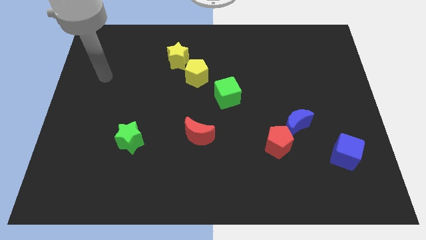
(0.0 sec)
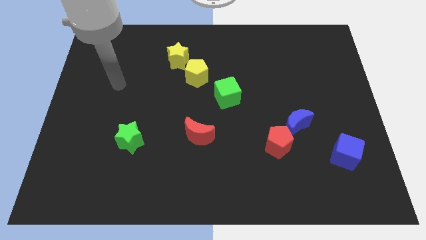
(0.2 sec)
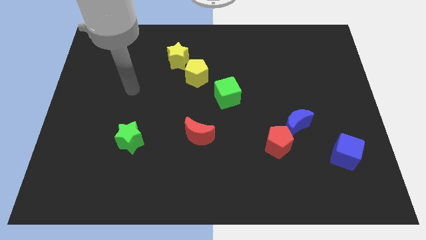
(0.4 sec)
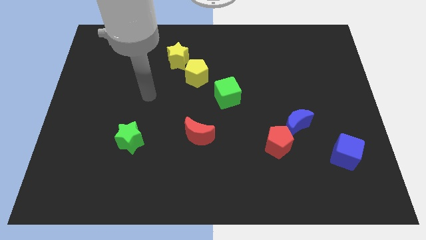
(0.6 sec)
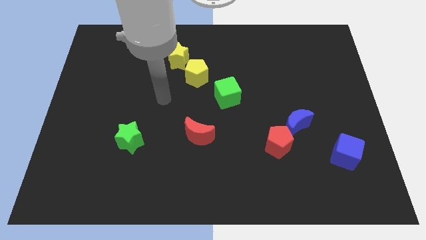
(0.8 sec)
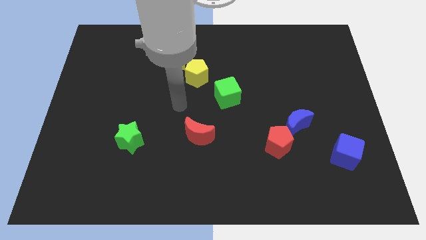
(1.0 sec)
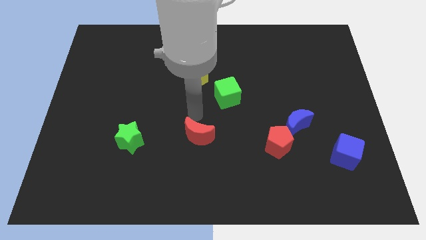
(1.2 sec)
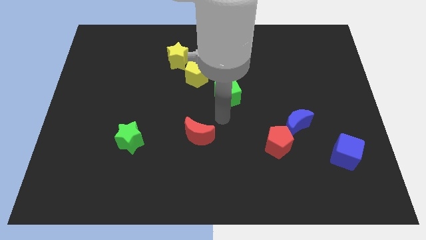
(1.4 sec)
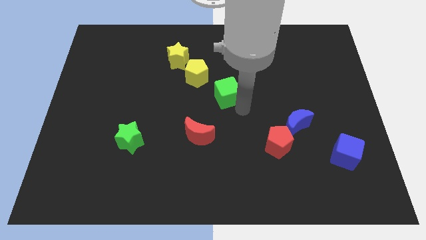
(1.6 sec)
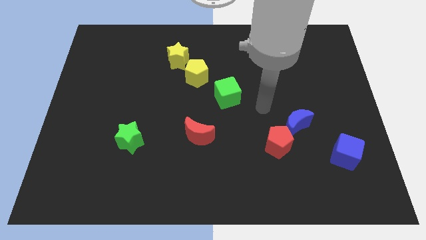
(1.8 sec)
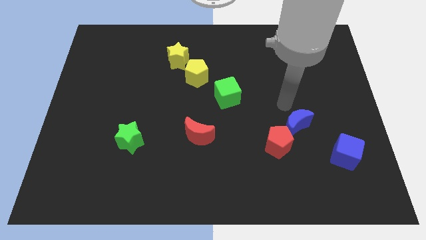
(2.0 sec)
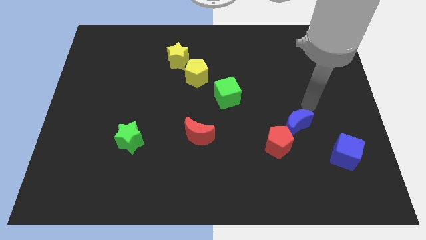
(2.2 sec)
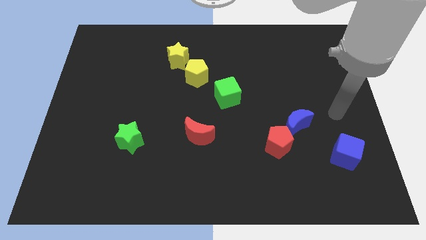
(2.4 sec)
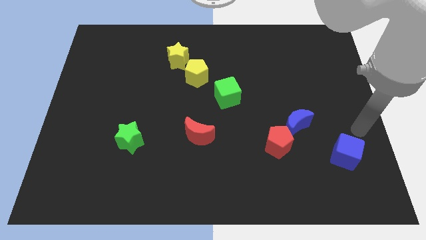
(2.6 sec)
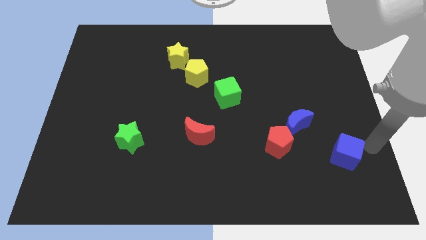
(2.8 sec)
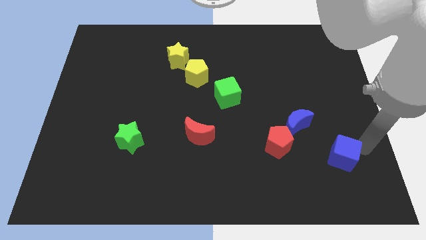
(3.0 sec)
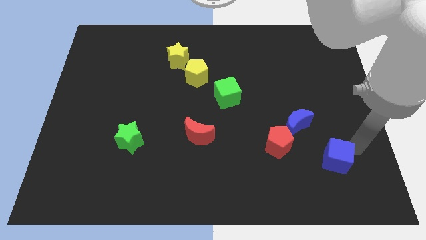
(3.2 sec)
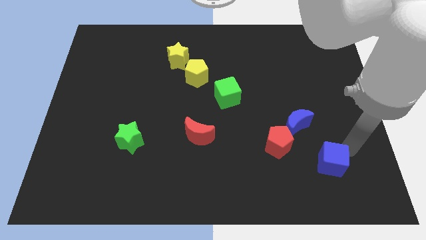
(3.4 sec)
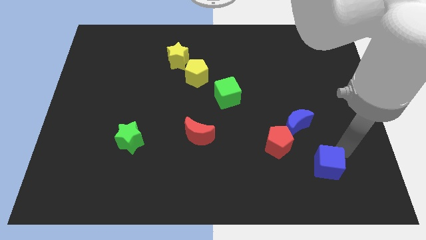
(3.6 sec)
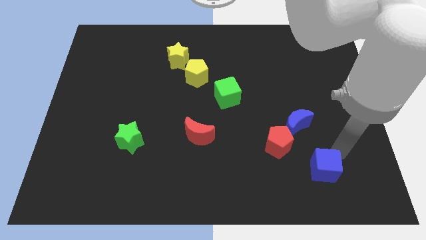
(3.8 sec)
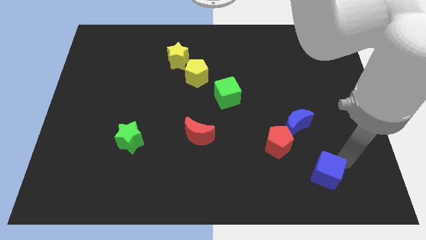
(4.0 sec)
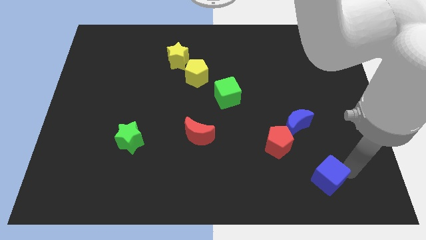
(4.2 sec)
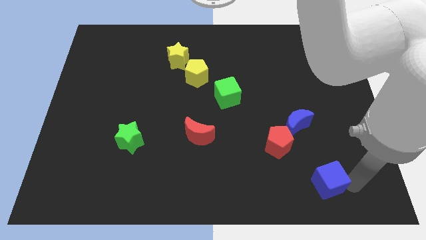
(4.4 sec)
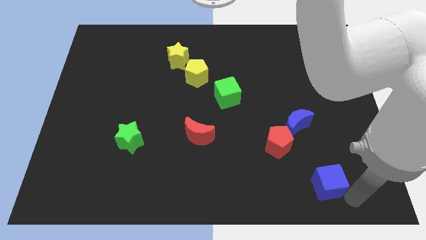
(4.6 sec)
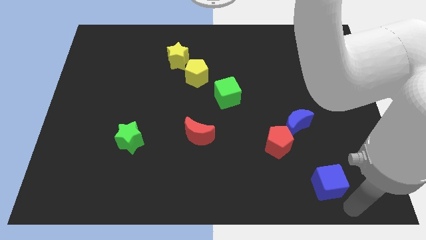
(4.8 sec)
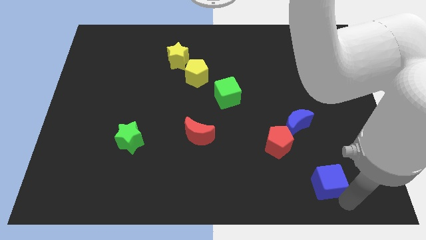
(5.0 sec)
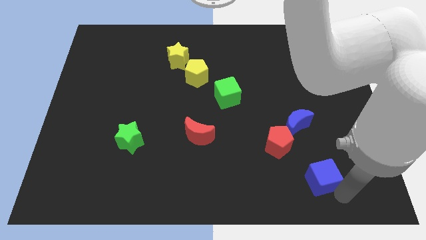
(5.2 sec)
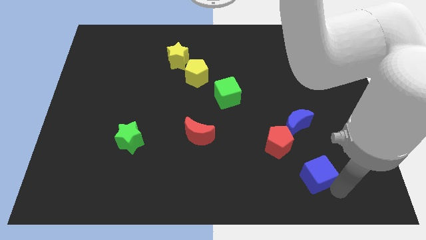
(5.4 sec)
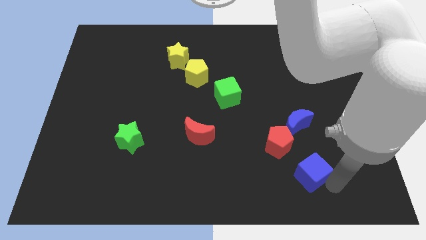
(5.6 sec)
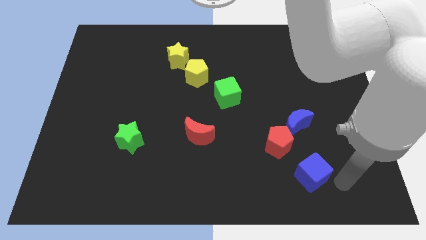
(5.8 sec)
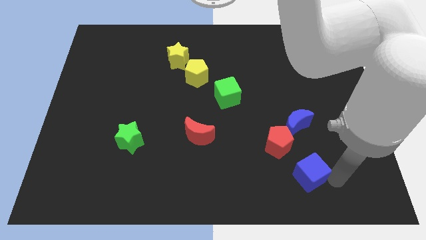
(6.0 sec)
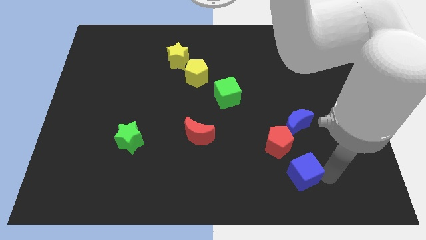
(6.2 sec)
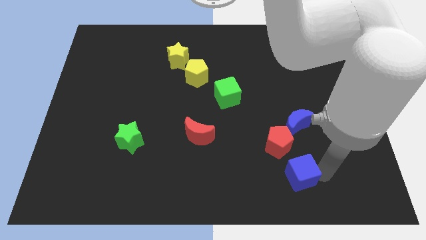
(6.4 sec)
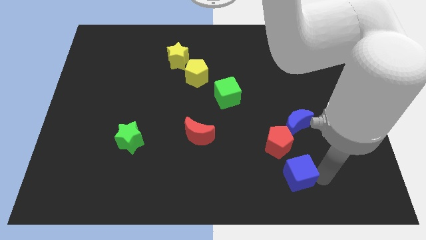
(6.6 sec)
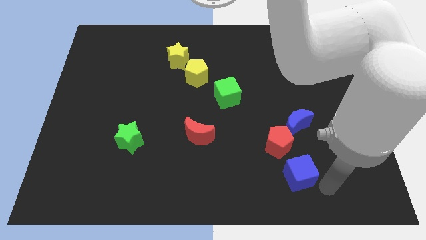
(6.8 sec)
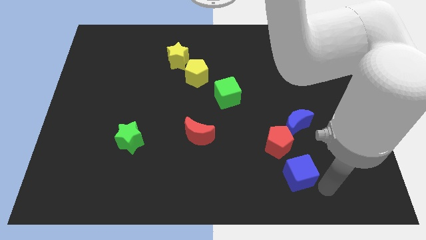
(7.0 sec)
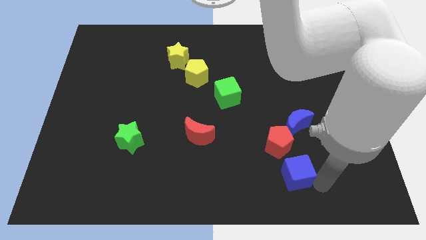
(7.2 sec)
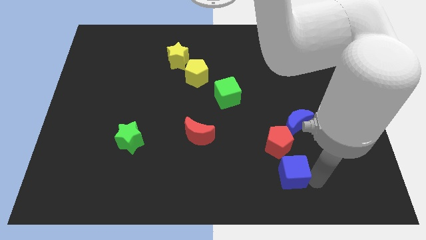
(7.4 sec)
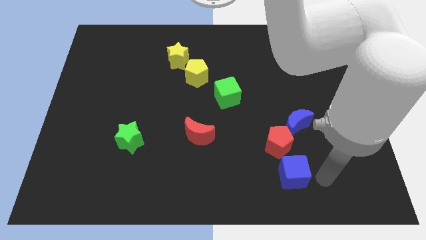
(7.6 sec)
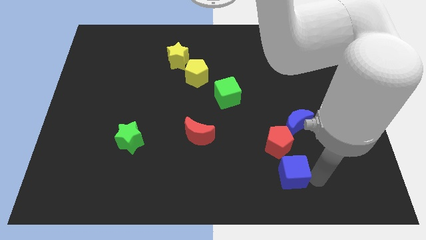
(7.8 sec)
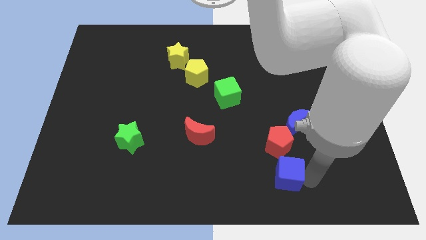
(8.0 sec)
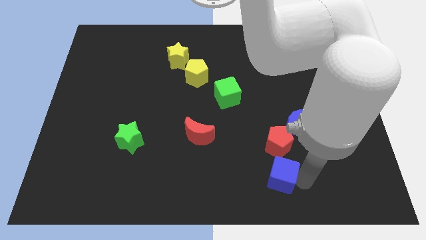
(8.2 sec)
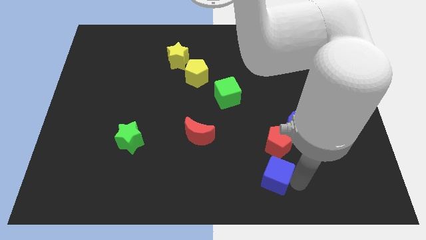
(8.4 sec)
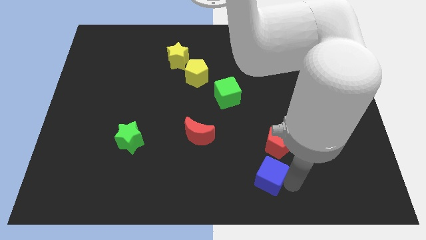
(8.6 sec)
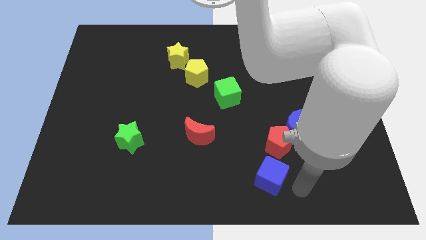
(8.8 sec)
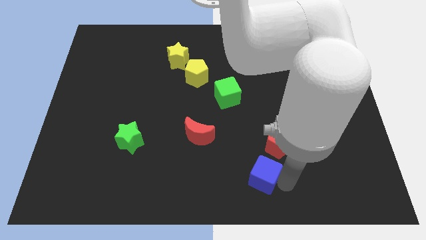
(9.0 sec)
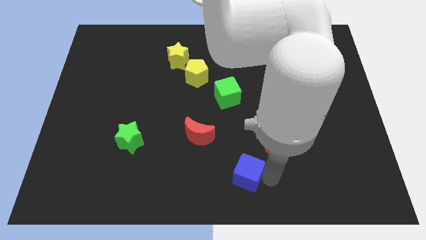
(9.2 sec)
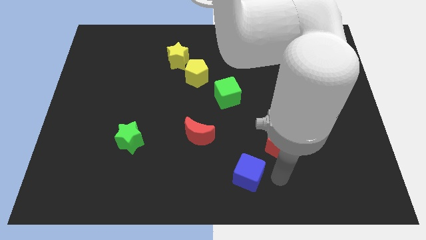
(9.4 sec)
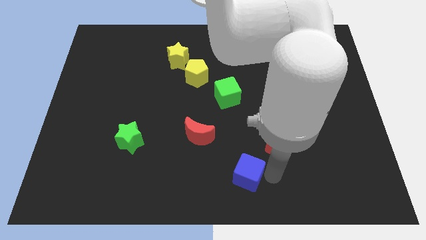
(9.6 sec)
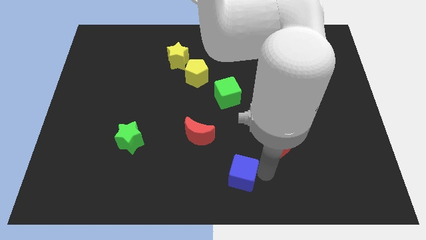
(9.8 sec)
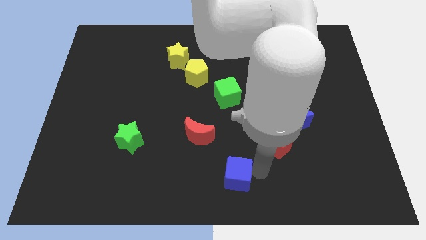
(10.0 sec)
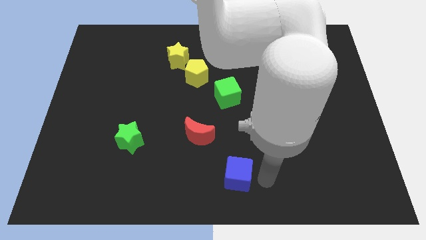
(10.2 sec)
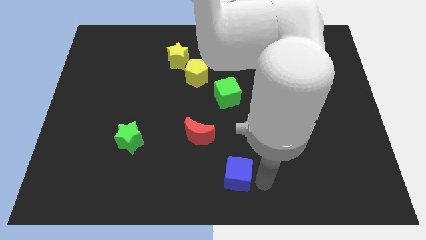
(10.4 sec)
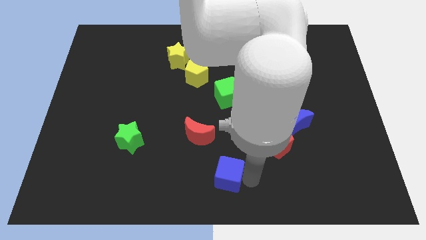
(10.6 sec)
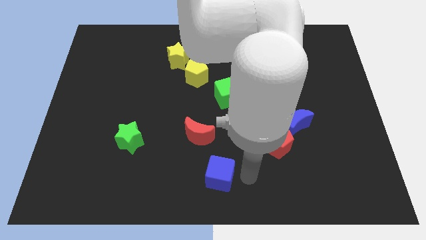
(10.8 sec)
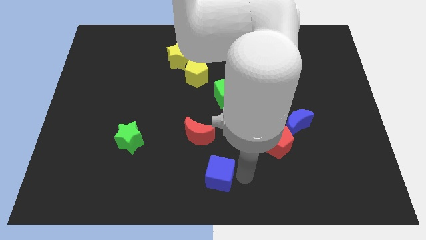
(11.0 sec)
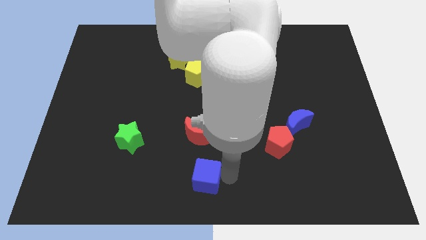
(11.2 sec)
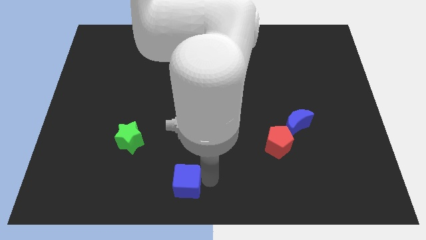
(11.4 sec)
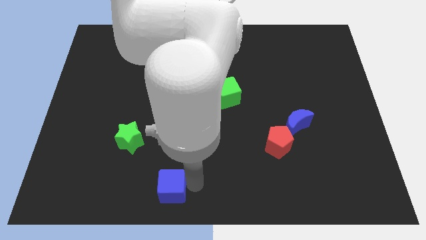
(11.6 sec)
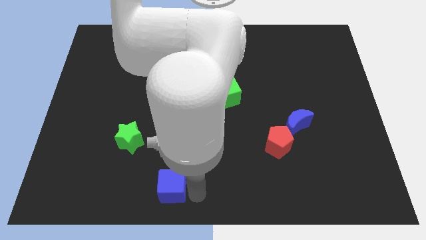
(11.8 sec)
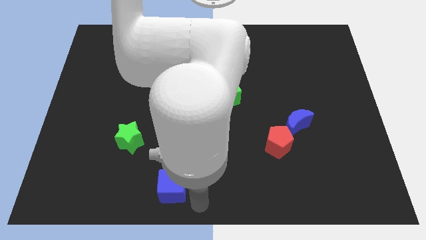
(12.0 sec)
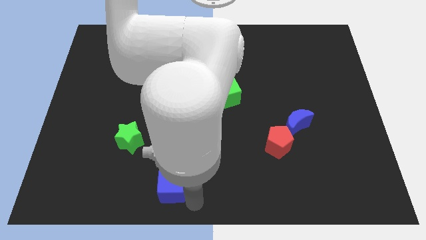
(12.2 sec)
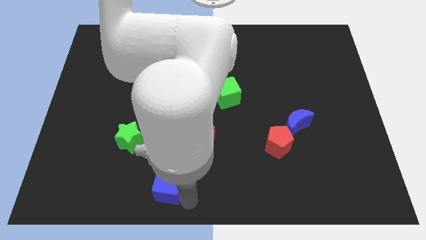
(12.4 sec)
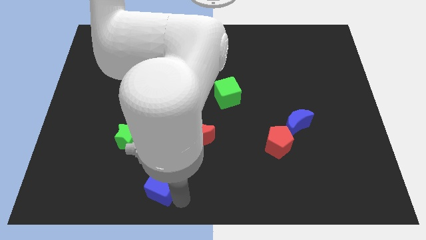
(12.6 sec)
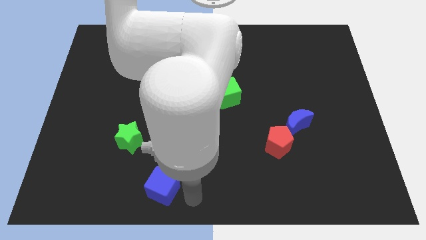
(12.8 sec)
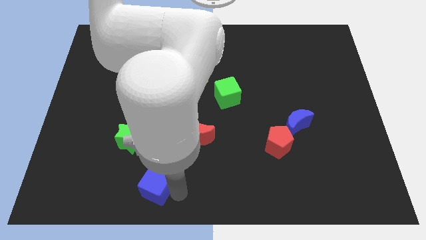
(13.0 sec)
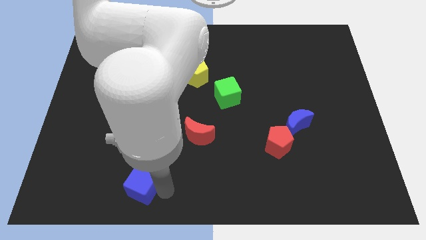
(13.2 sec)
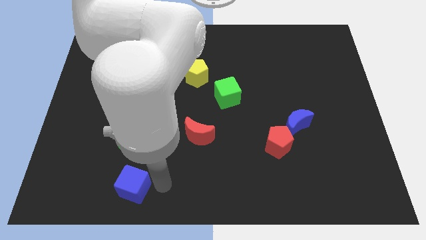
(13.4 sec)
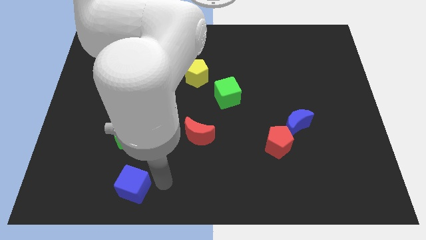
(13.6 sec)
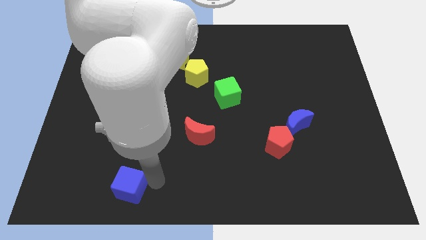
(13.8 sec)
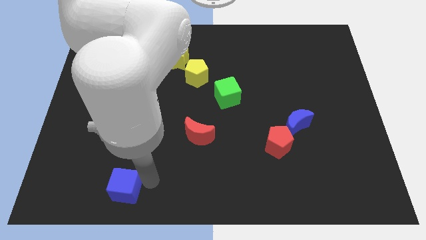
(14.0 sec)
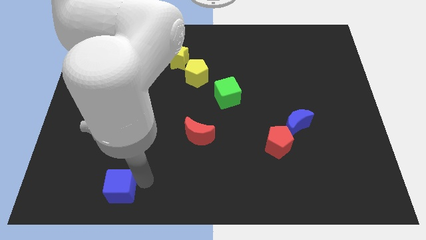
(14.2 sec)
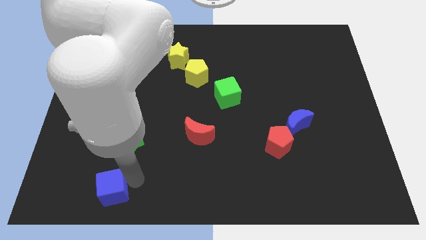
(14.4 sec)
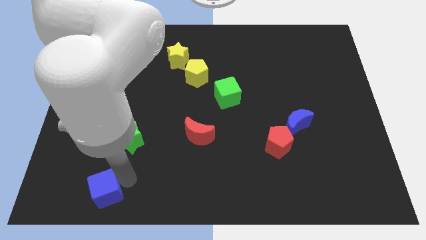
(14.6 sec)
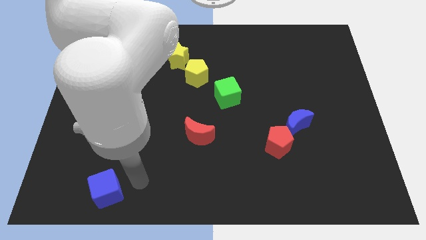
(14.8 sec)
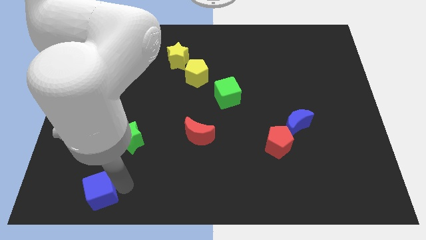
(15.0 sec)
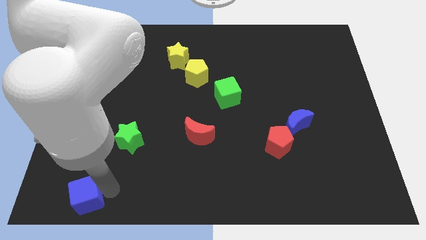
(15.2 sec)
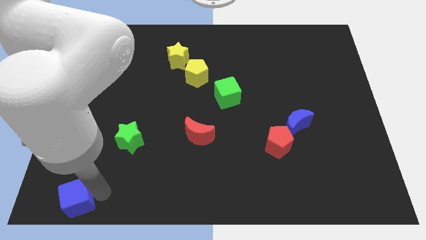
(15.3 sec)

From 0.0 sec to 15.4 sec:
move the blue cube to the lower left corner

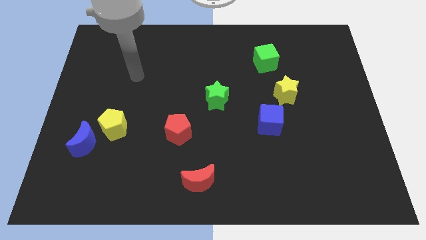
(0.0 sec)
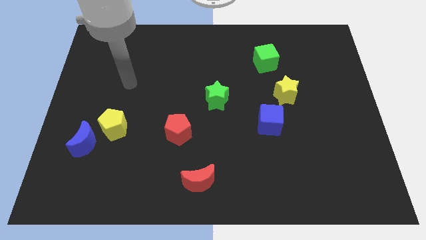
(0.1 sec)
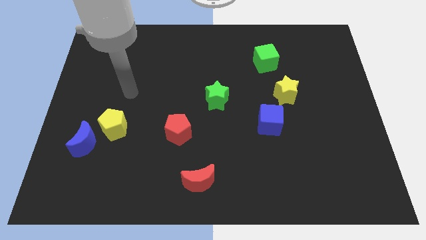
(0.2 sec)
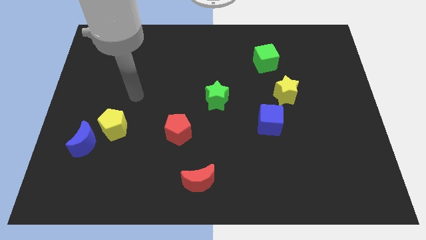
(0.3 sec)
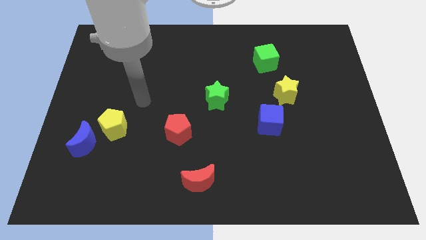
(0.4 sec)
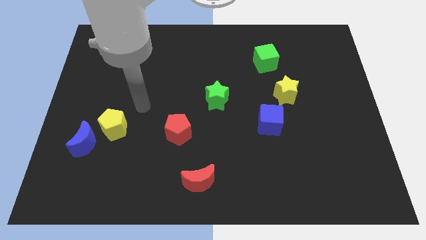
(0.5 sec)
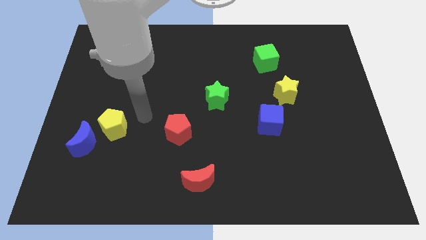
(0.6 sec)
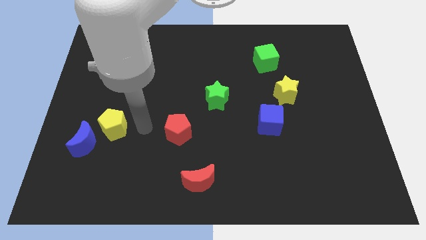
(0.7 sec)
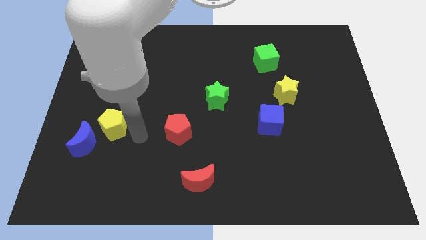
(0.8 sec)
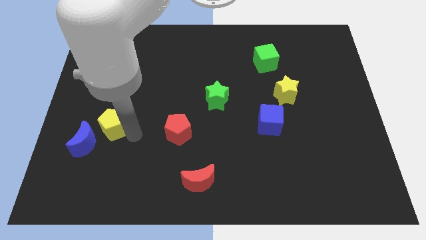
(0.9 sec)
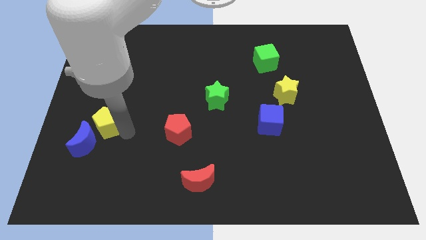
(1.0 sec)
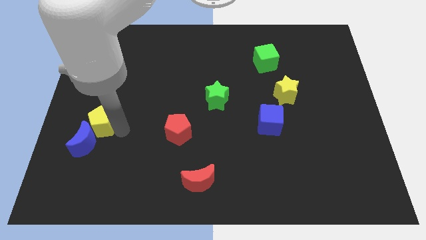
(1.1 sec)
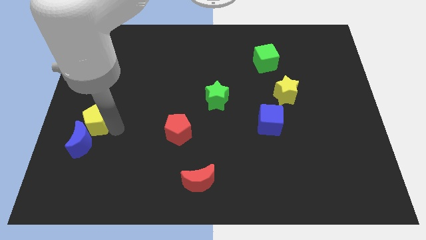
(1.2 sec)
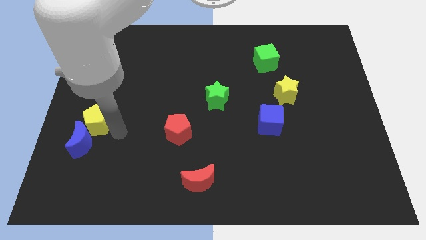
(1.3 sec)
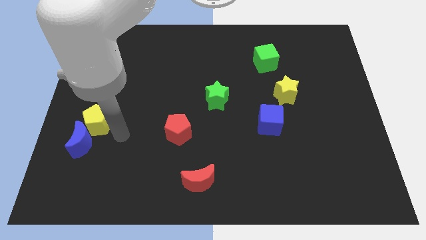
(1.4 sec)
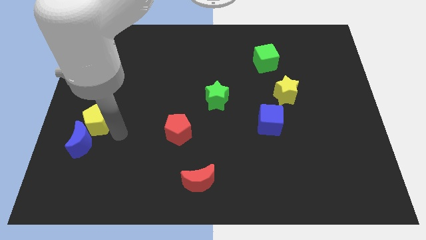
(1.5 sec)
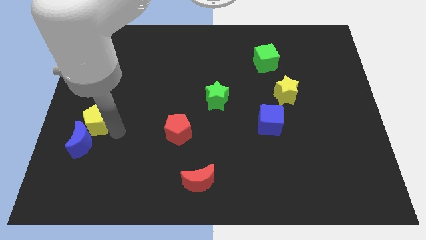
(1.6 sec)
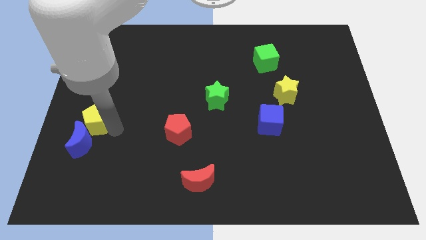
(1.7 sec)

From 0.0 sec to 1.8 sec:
move the yellow pentagon to the left side of the board
